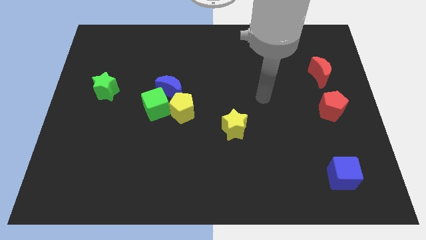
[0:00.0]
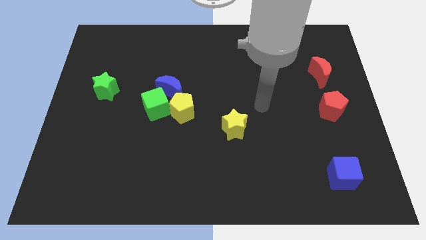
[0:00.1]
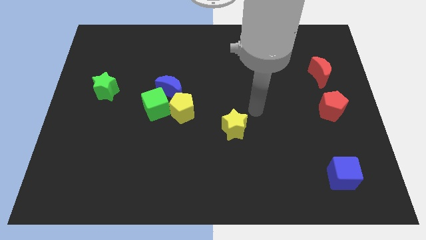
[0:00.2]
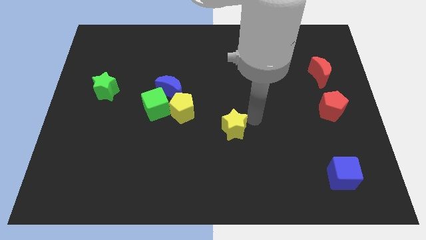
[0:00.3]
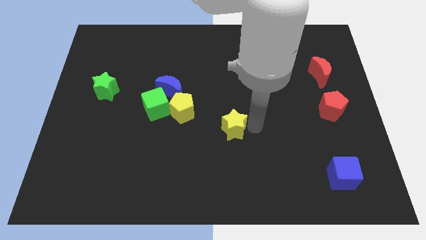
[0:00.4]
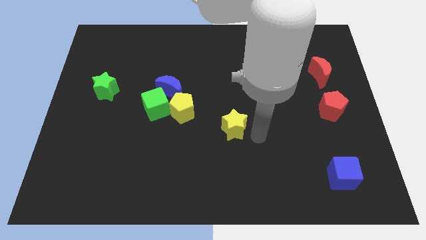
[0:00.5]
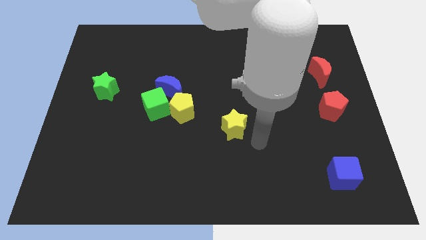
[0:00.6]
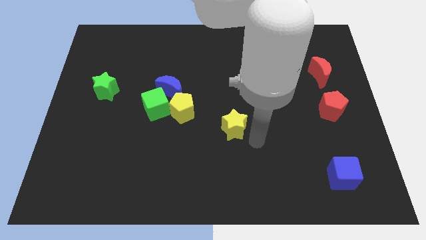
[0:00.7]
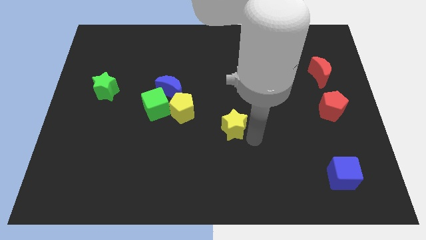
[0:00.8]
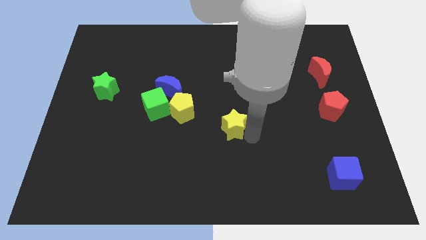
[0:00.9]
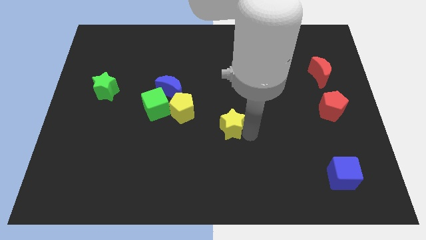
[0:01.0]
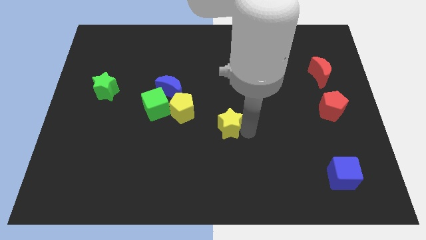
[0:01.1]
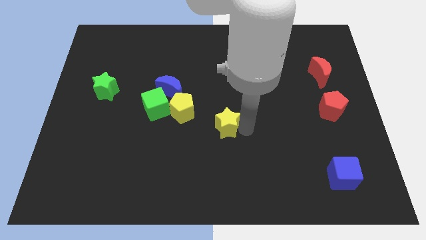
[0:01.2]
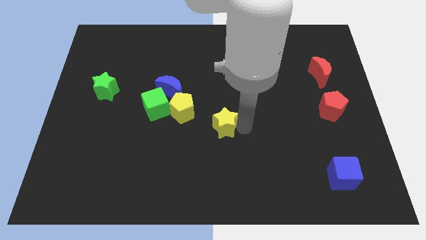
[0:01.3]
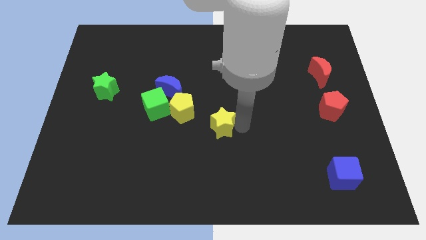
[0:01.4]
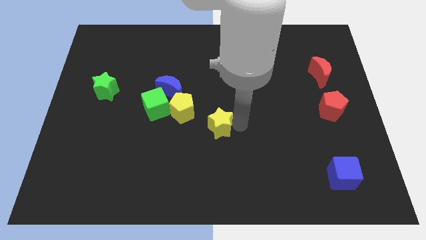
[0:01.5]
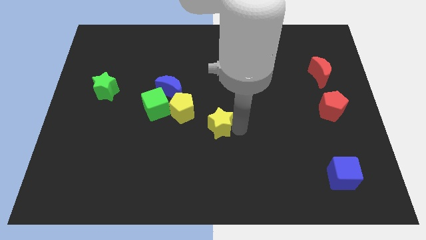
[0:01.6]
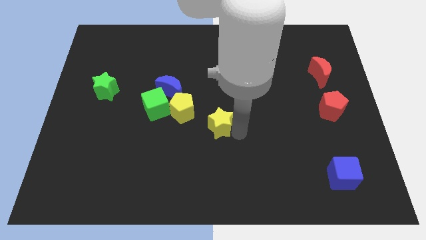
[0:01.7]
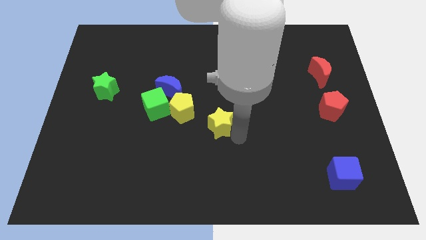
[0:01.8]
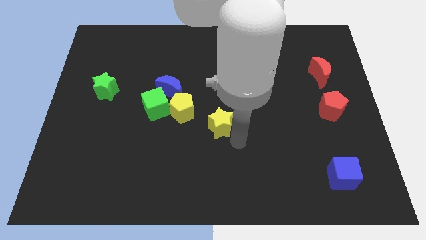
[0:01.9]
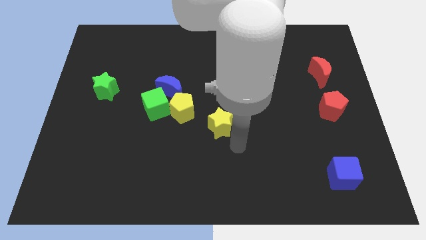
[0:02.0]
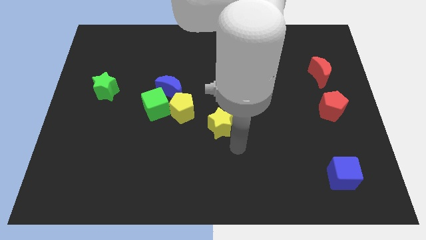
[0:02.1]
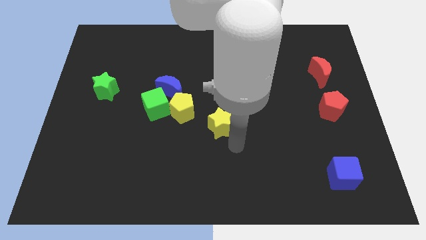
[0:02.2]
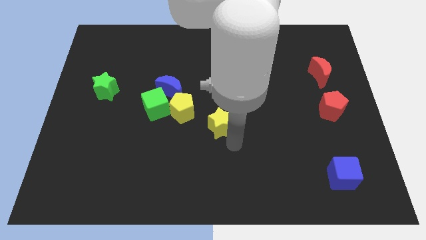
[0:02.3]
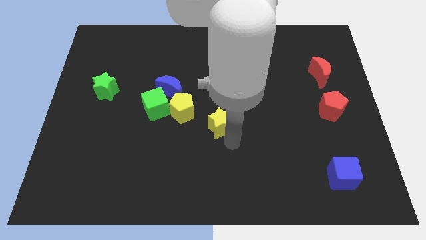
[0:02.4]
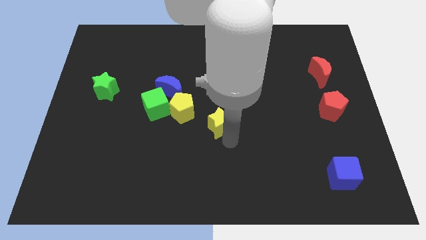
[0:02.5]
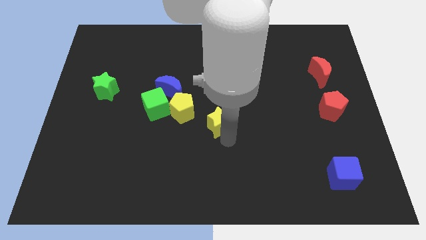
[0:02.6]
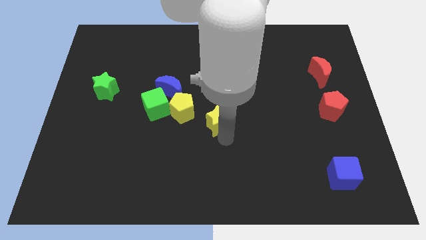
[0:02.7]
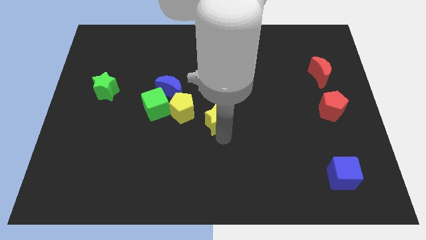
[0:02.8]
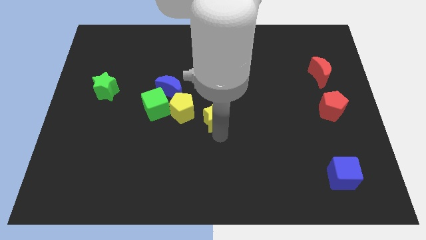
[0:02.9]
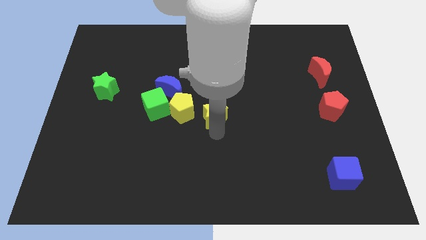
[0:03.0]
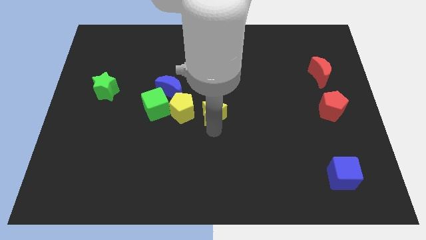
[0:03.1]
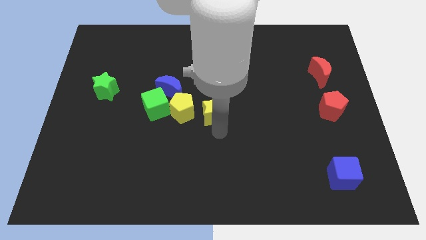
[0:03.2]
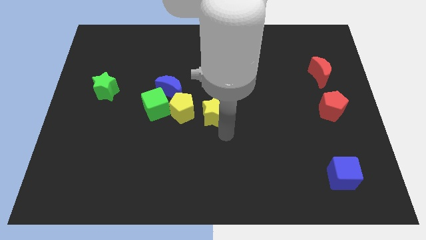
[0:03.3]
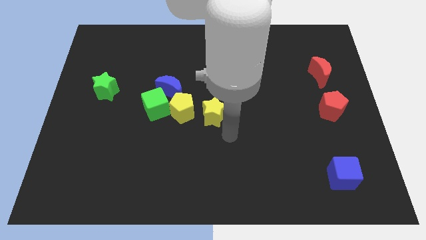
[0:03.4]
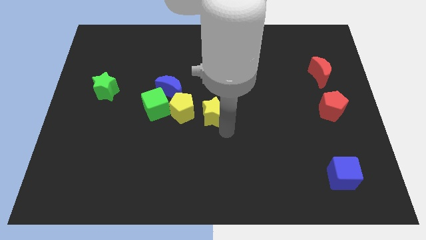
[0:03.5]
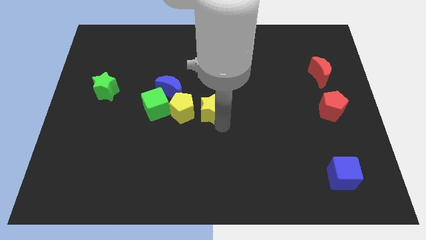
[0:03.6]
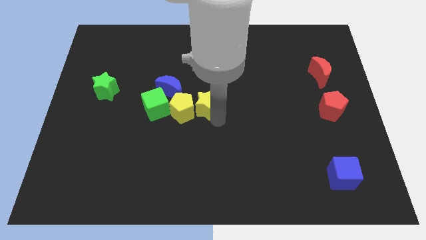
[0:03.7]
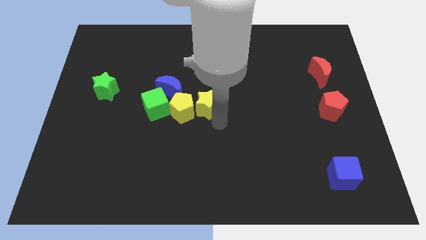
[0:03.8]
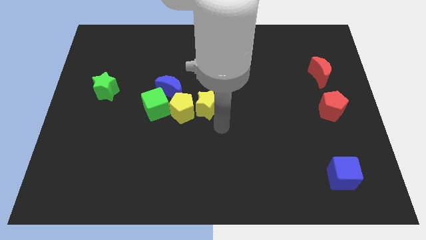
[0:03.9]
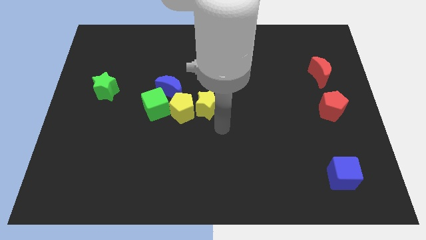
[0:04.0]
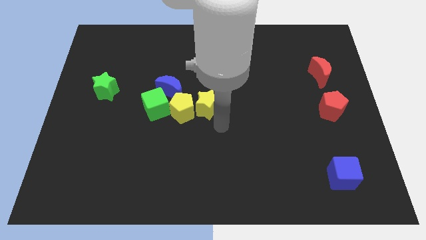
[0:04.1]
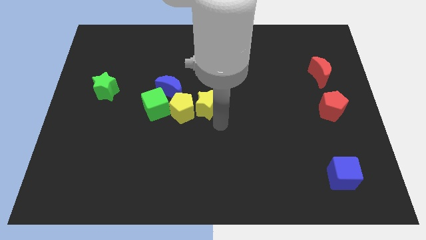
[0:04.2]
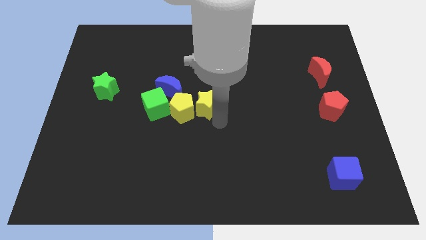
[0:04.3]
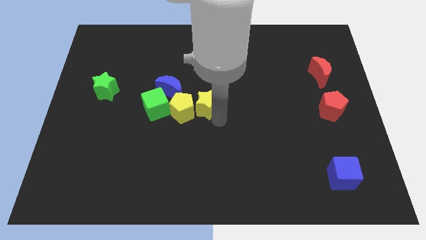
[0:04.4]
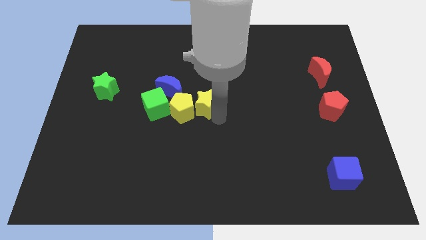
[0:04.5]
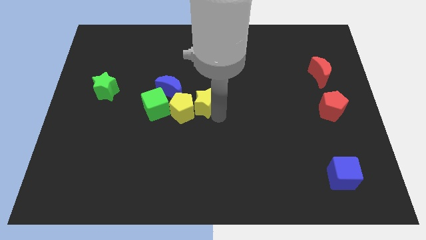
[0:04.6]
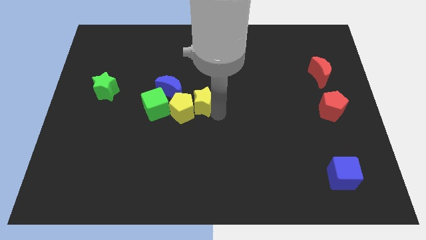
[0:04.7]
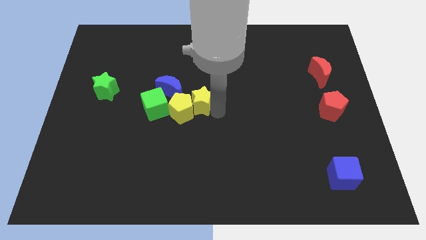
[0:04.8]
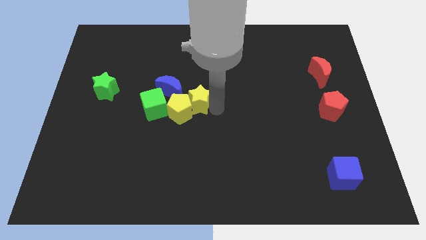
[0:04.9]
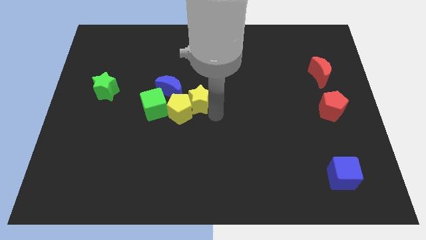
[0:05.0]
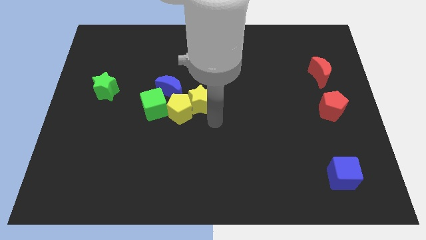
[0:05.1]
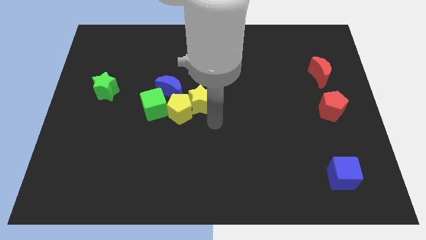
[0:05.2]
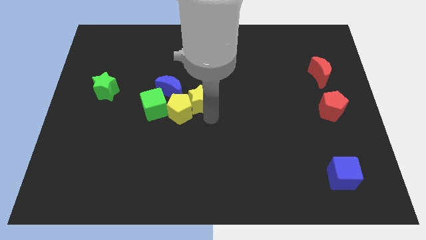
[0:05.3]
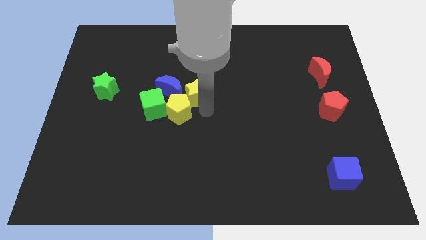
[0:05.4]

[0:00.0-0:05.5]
push the yellow star to the top of the yellow pentagon
